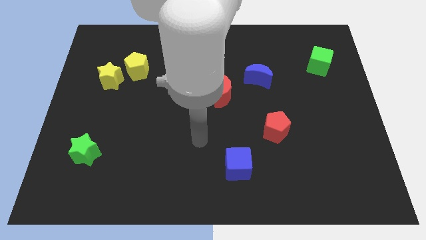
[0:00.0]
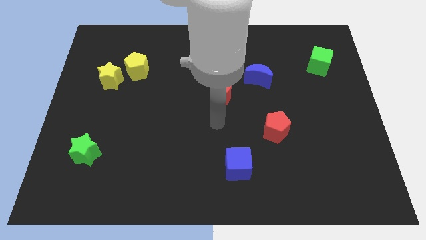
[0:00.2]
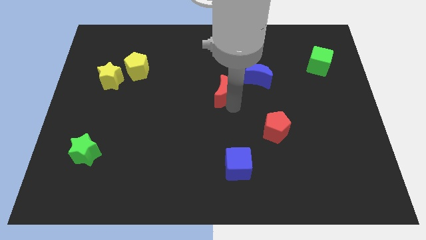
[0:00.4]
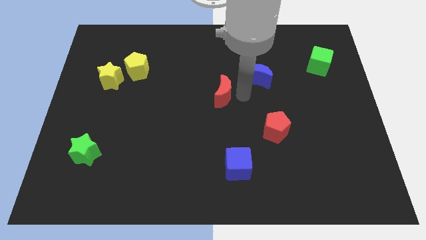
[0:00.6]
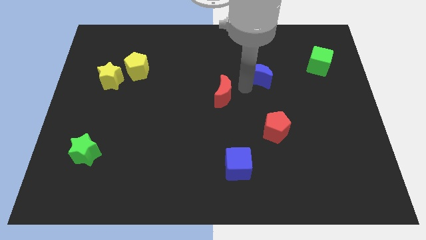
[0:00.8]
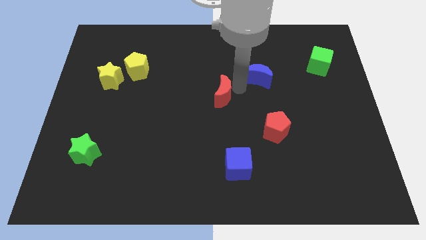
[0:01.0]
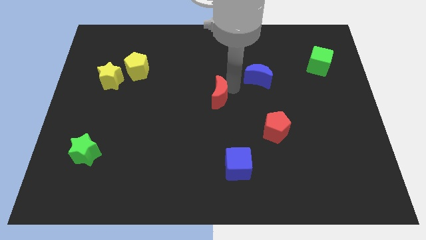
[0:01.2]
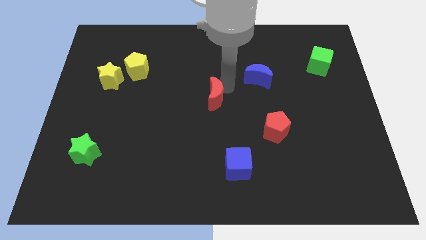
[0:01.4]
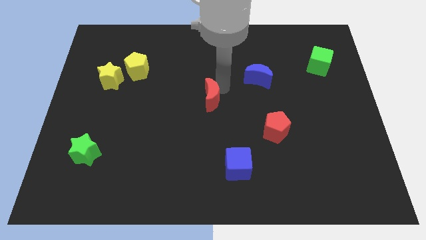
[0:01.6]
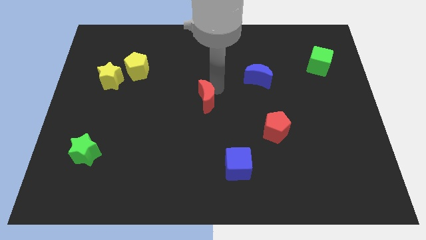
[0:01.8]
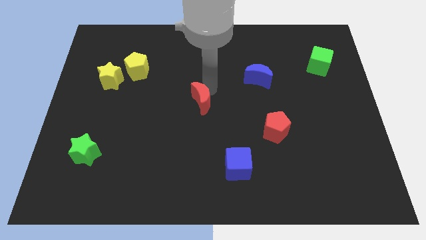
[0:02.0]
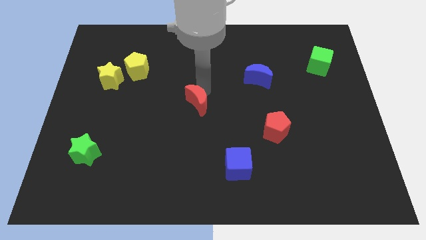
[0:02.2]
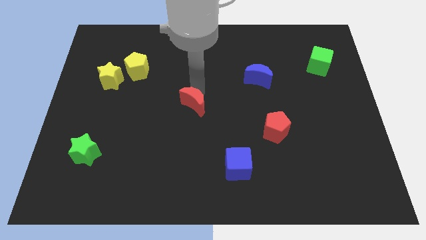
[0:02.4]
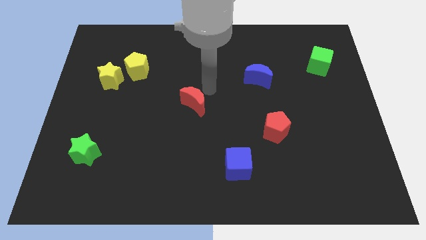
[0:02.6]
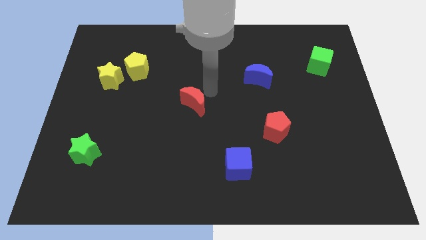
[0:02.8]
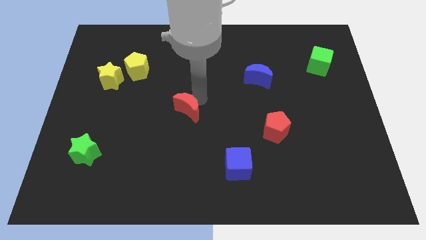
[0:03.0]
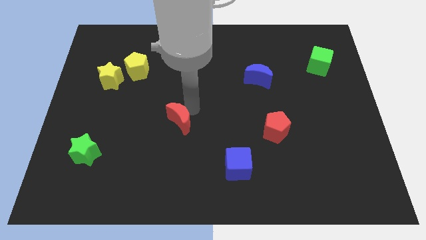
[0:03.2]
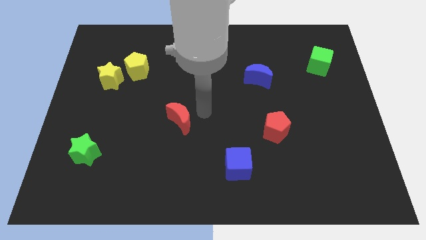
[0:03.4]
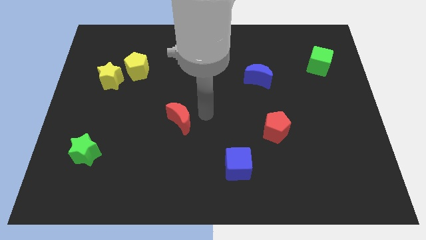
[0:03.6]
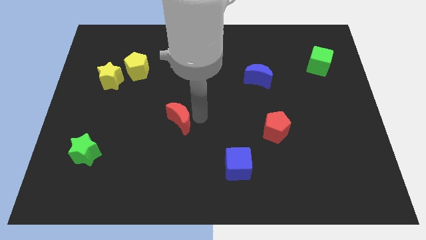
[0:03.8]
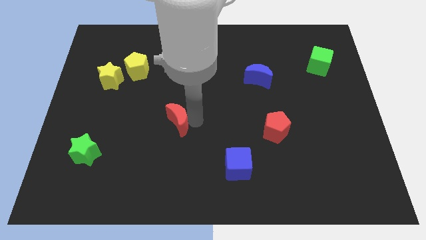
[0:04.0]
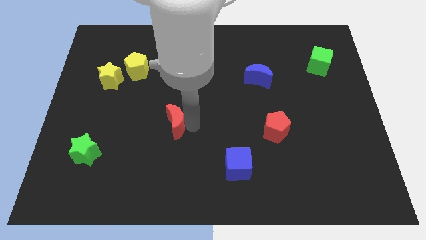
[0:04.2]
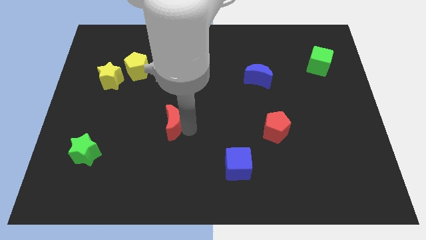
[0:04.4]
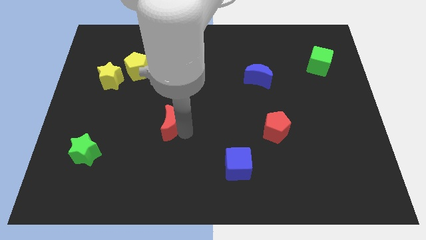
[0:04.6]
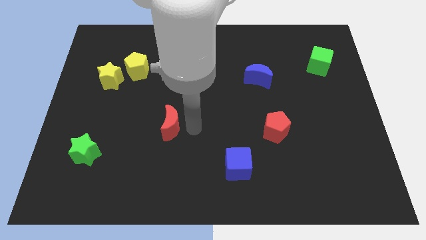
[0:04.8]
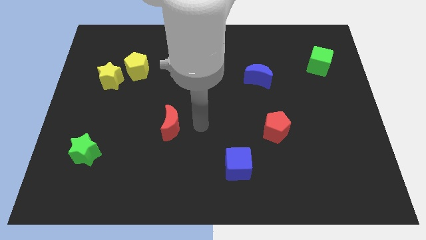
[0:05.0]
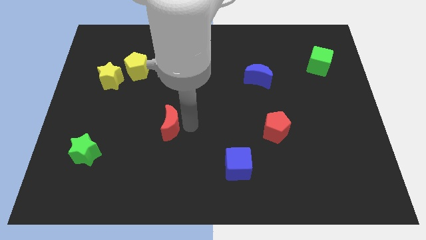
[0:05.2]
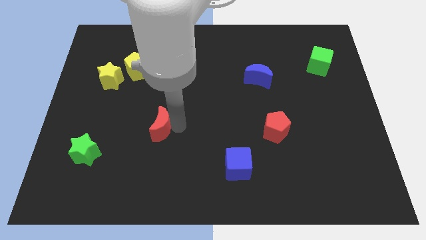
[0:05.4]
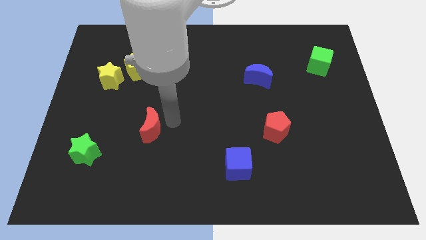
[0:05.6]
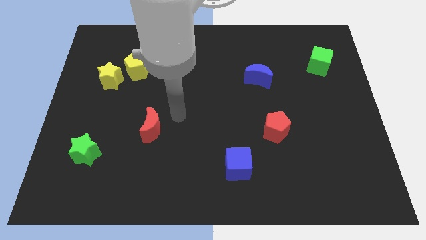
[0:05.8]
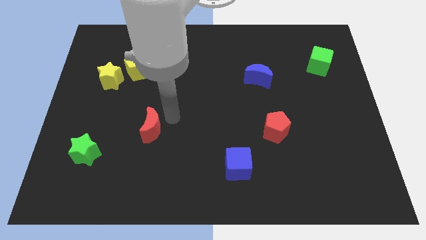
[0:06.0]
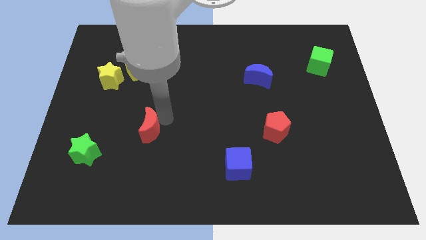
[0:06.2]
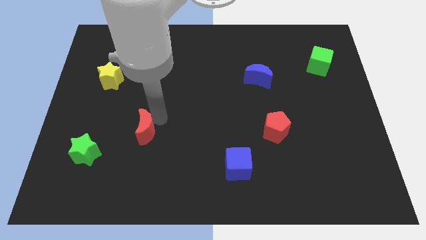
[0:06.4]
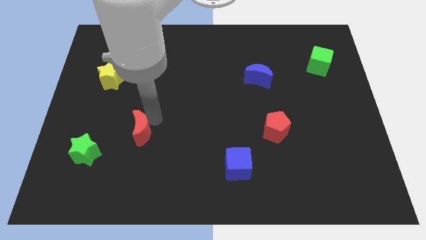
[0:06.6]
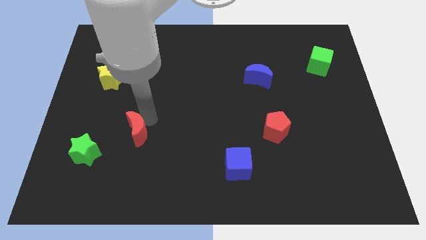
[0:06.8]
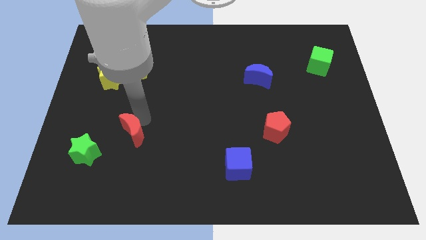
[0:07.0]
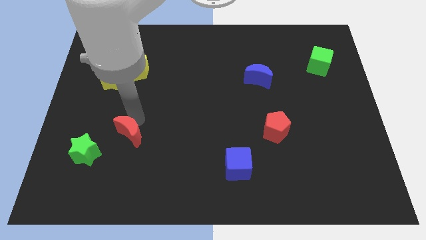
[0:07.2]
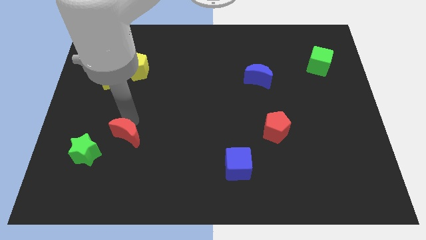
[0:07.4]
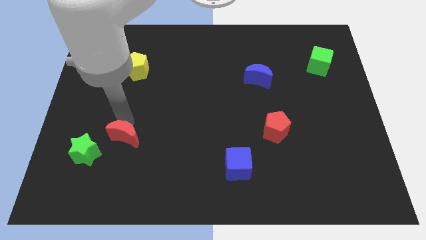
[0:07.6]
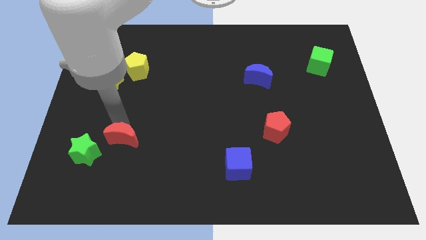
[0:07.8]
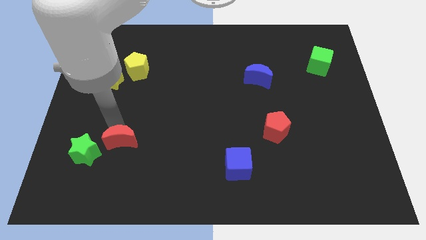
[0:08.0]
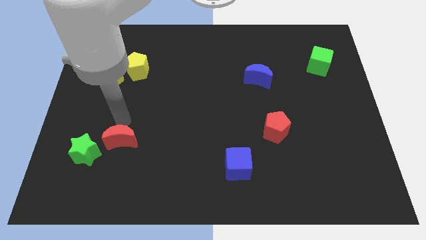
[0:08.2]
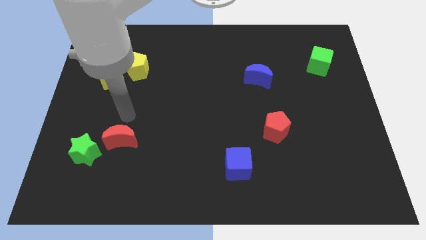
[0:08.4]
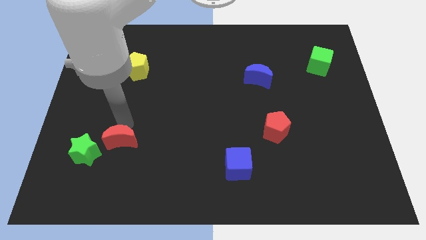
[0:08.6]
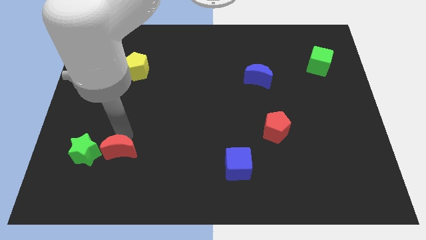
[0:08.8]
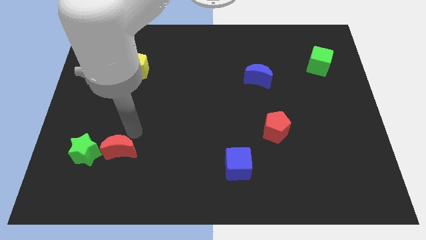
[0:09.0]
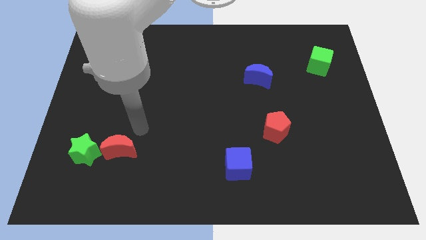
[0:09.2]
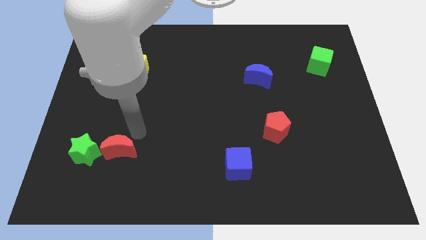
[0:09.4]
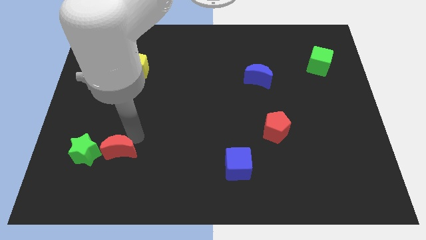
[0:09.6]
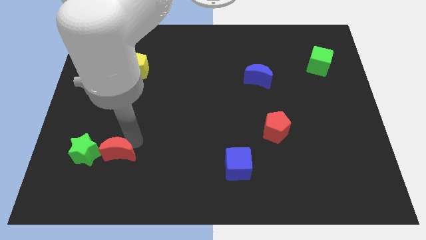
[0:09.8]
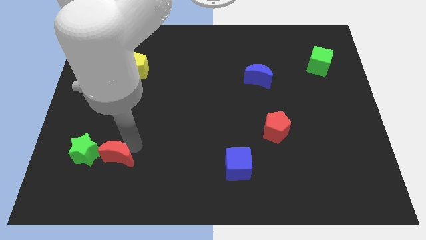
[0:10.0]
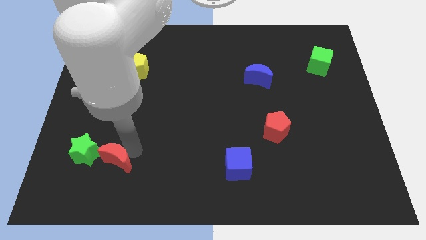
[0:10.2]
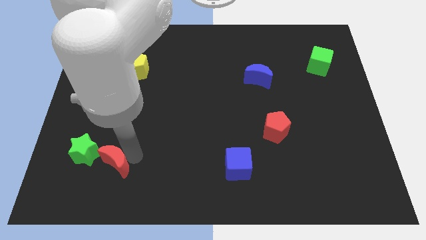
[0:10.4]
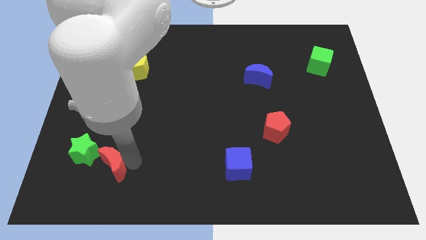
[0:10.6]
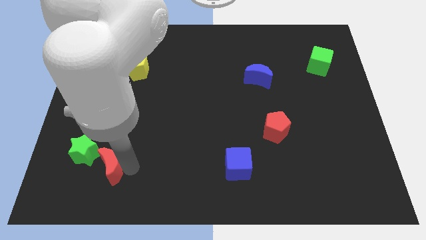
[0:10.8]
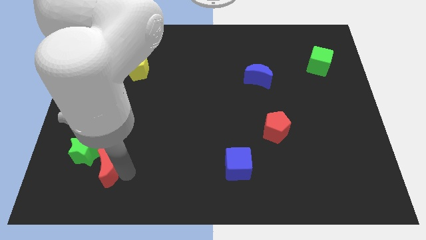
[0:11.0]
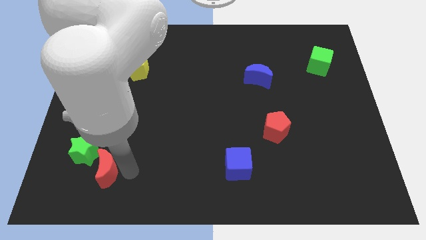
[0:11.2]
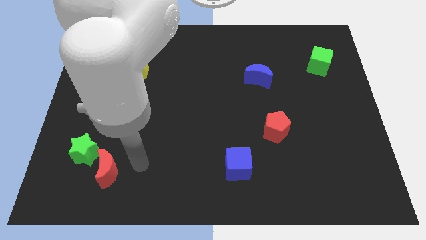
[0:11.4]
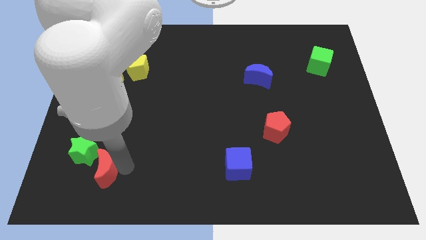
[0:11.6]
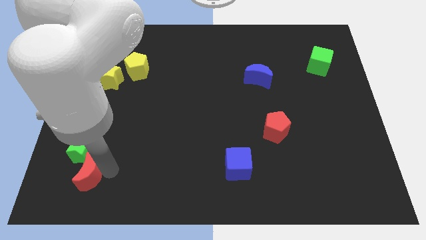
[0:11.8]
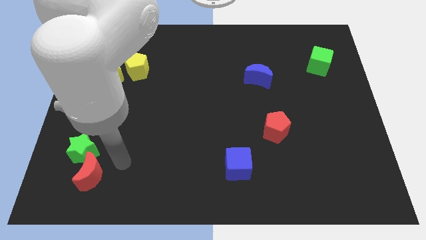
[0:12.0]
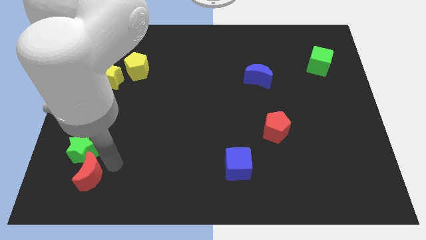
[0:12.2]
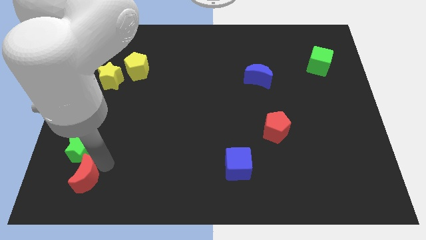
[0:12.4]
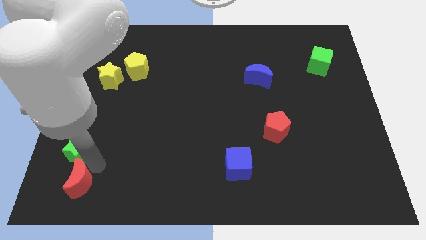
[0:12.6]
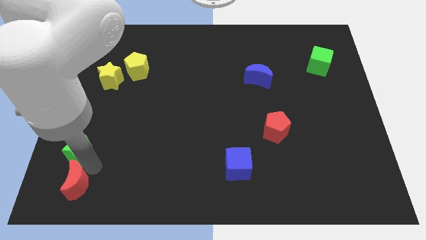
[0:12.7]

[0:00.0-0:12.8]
slide the red moon to the lower left corner
